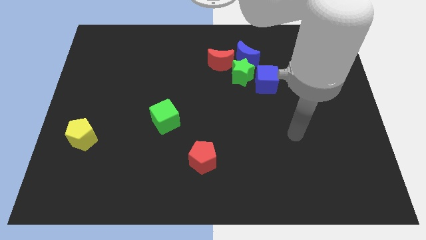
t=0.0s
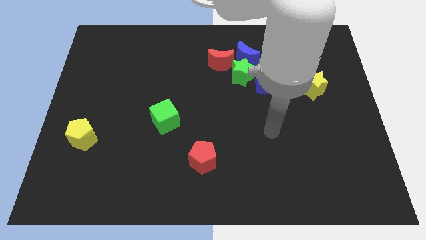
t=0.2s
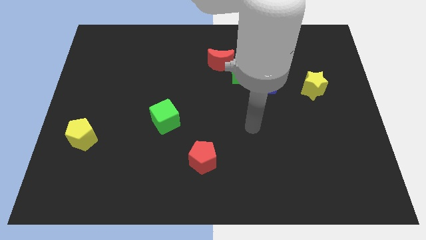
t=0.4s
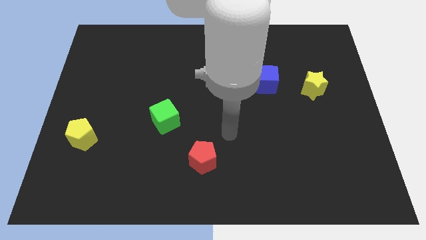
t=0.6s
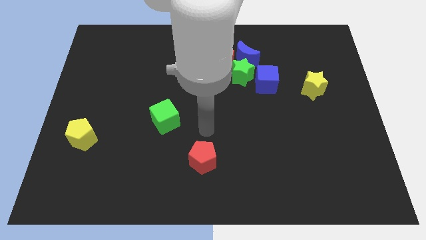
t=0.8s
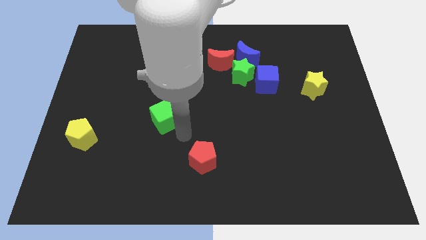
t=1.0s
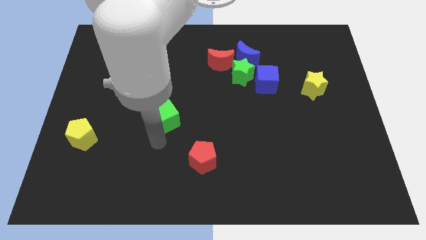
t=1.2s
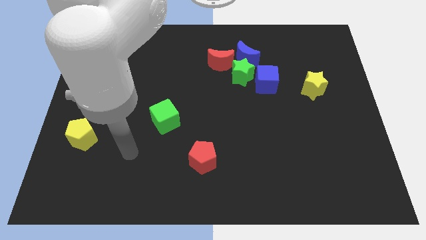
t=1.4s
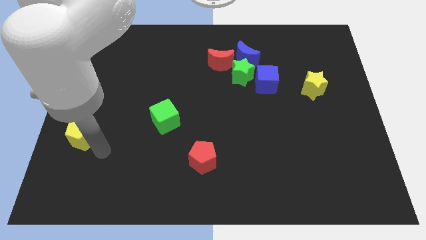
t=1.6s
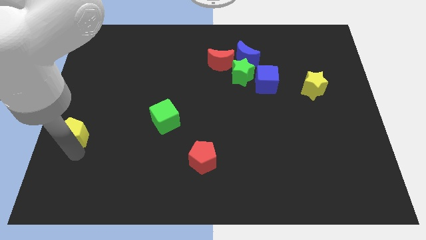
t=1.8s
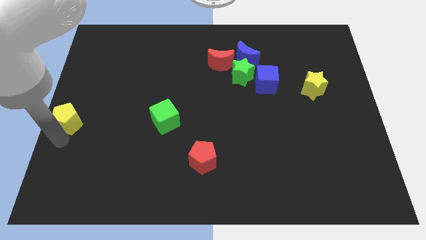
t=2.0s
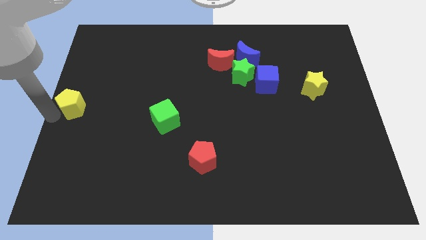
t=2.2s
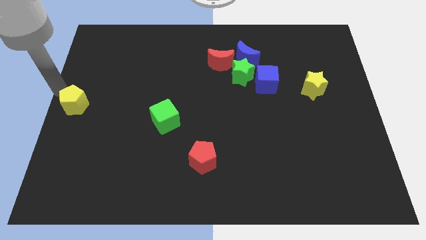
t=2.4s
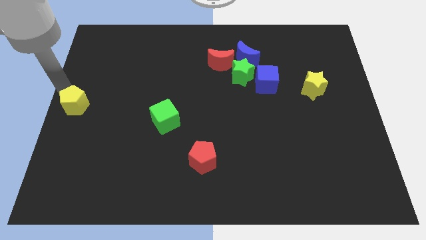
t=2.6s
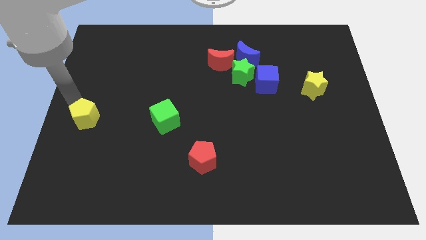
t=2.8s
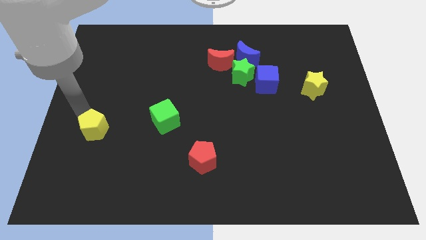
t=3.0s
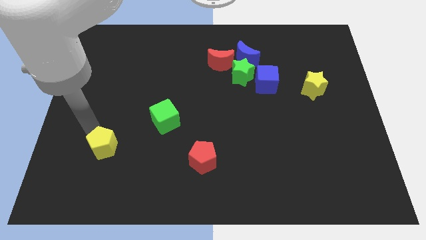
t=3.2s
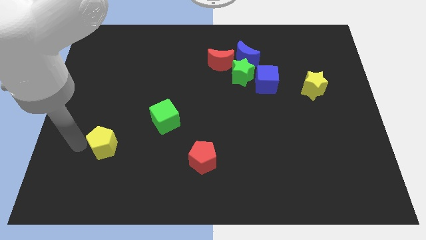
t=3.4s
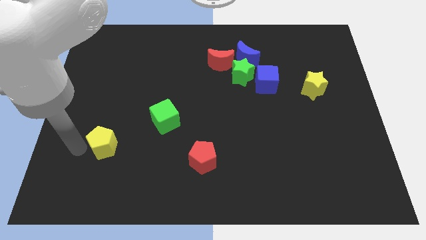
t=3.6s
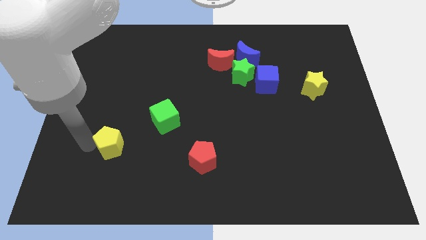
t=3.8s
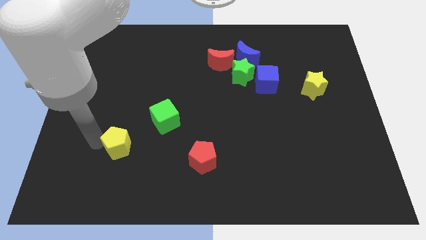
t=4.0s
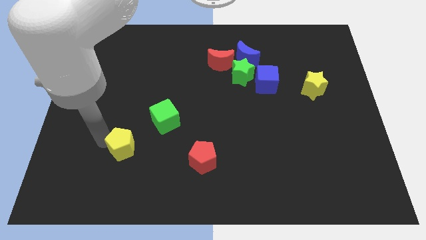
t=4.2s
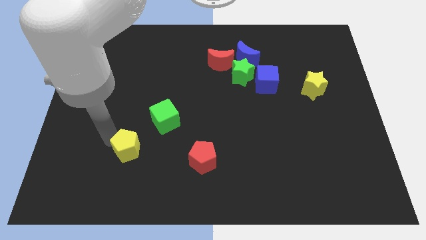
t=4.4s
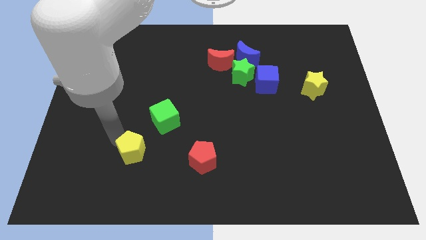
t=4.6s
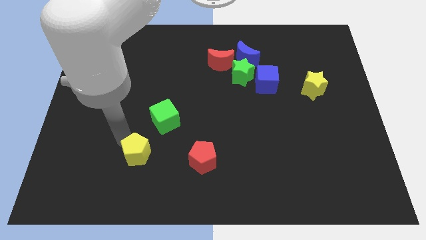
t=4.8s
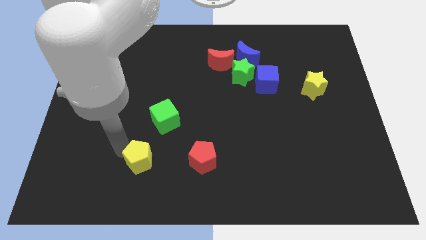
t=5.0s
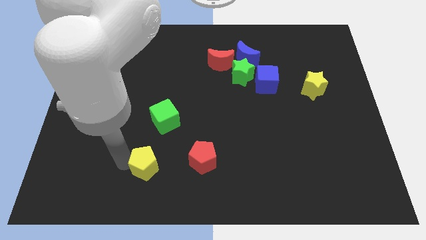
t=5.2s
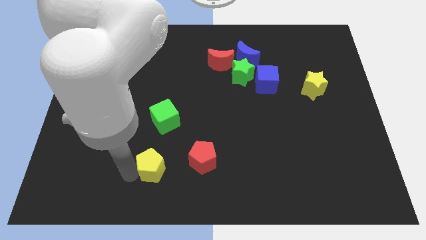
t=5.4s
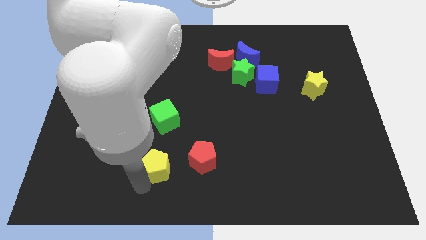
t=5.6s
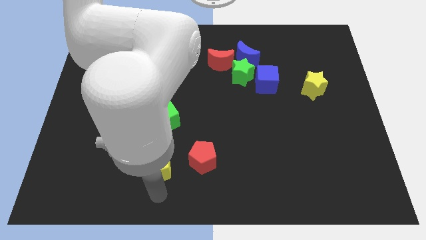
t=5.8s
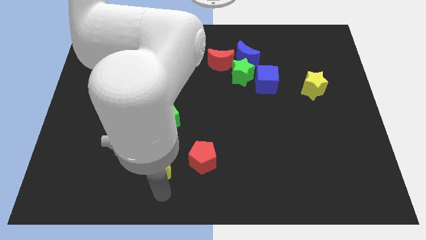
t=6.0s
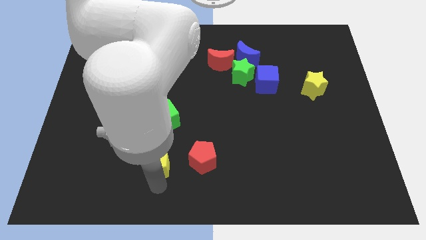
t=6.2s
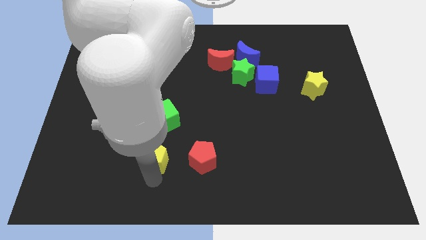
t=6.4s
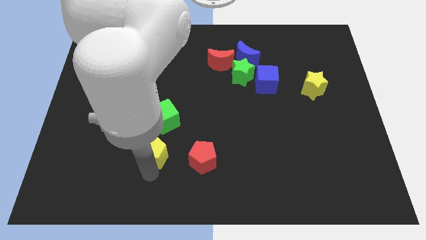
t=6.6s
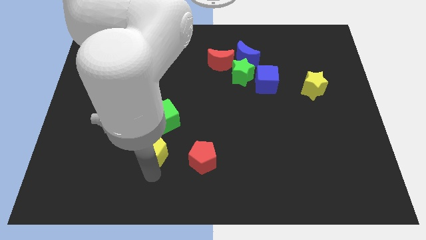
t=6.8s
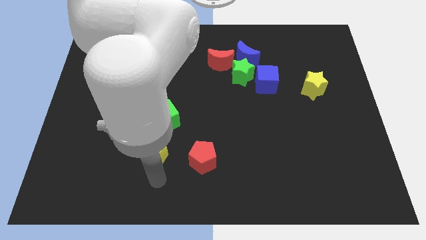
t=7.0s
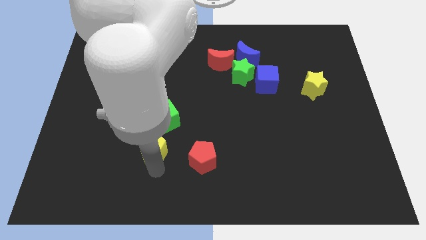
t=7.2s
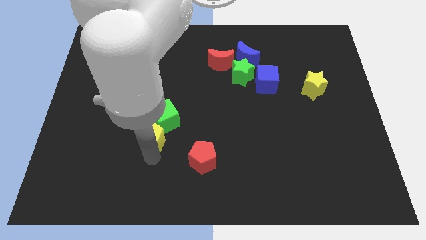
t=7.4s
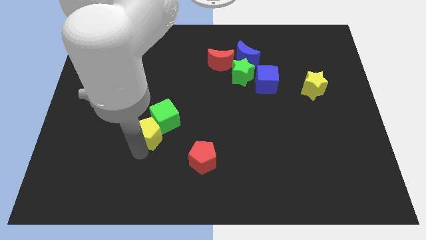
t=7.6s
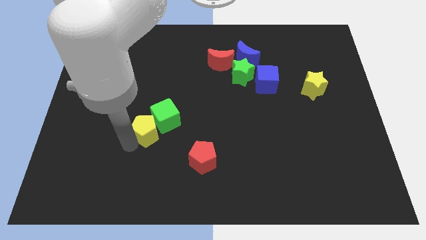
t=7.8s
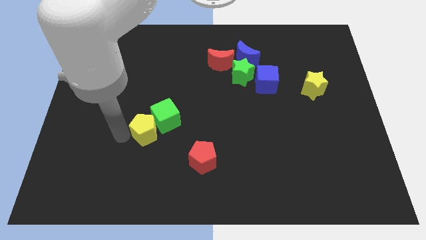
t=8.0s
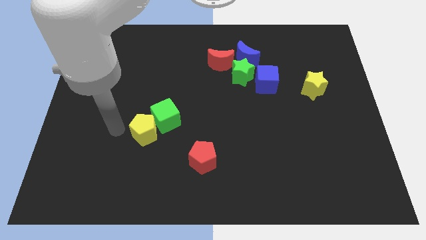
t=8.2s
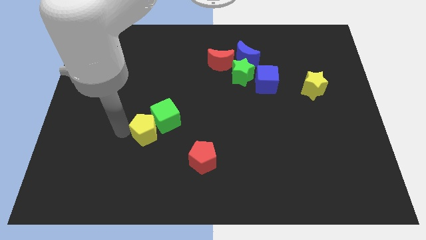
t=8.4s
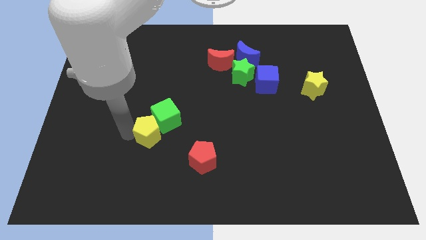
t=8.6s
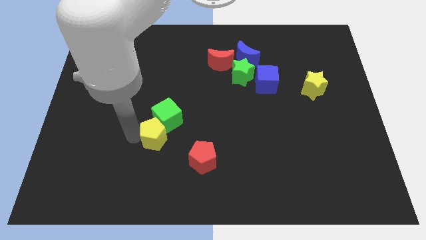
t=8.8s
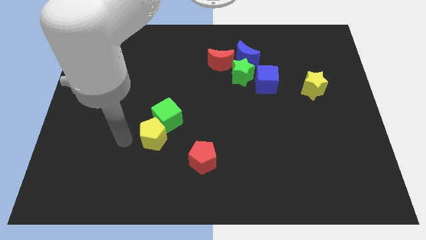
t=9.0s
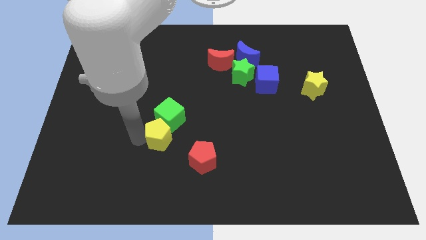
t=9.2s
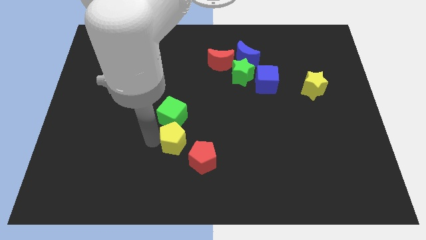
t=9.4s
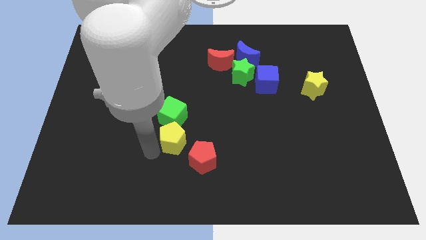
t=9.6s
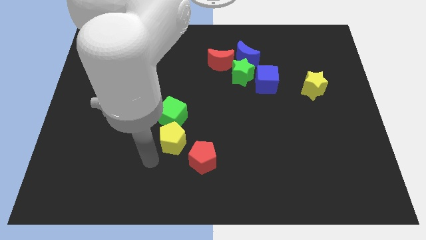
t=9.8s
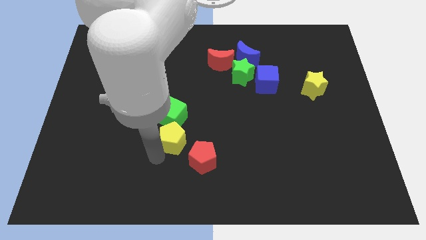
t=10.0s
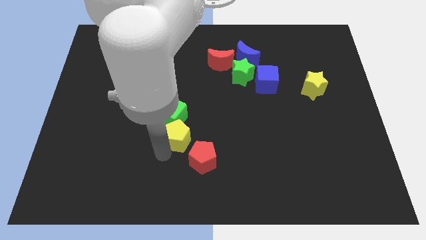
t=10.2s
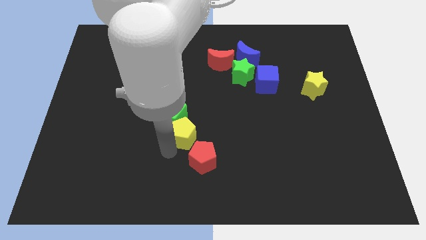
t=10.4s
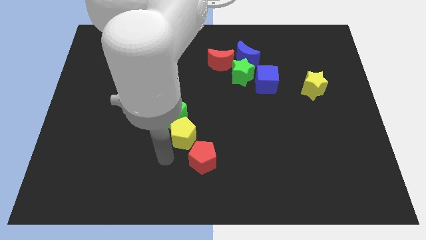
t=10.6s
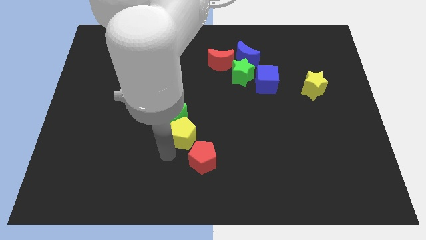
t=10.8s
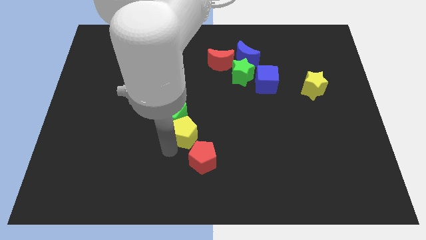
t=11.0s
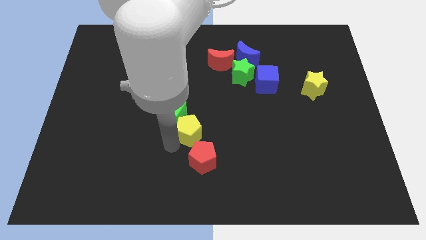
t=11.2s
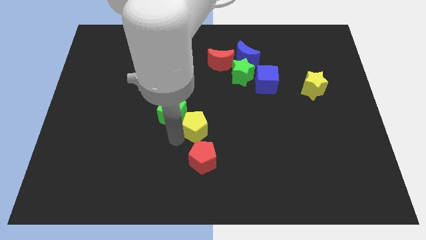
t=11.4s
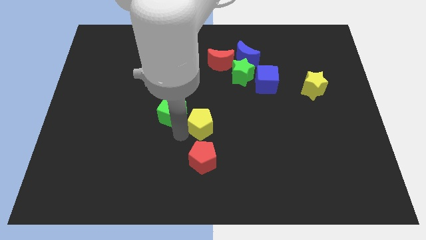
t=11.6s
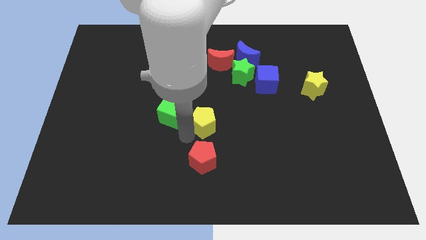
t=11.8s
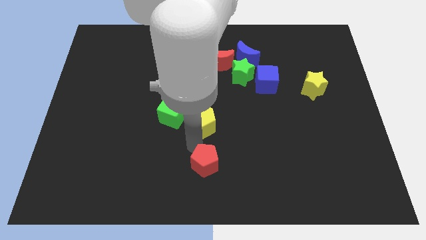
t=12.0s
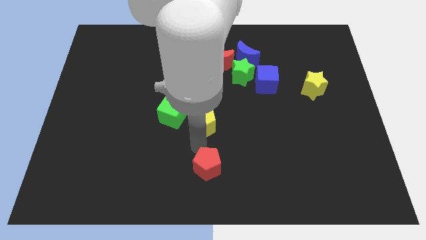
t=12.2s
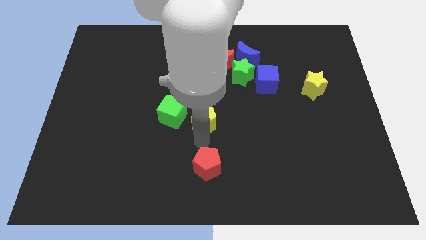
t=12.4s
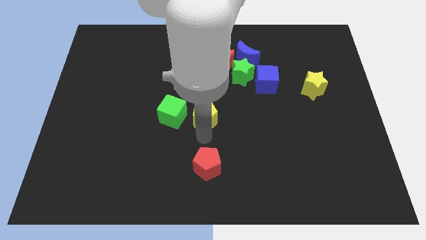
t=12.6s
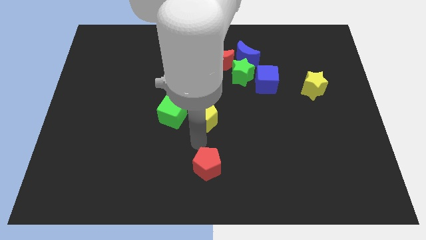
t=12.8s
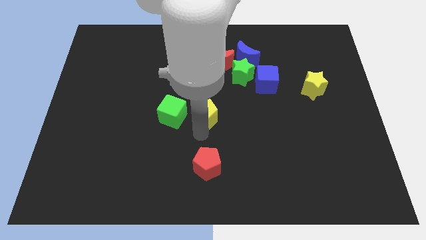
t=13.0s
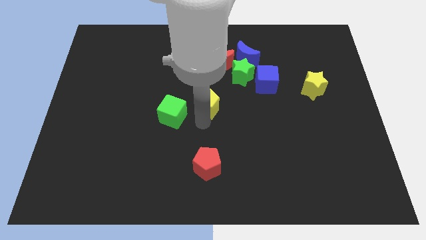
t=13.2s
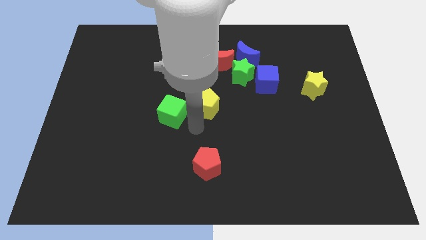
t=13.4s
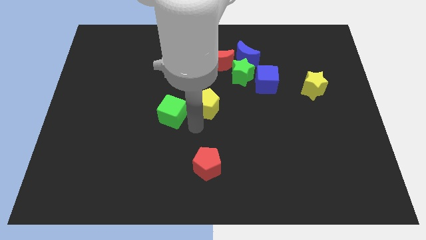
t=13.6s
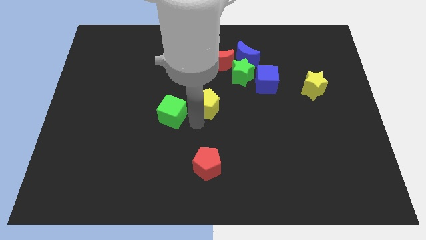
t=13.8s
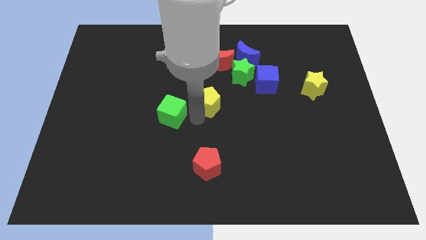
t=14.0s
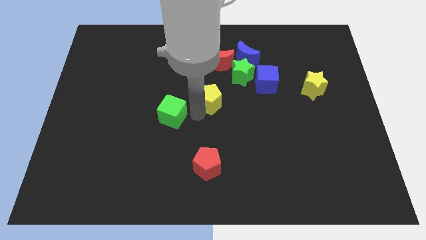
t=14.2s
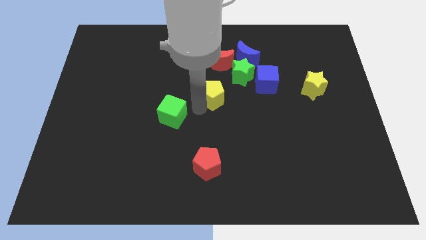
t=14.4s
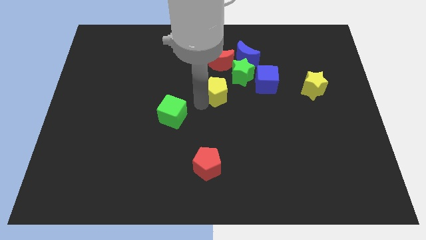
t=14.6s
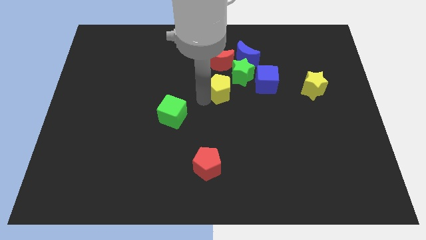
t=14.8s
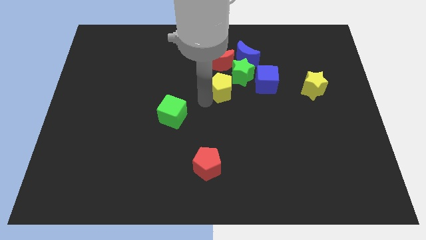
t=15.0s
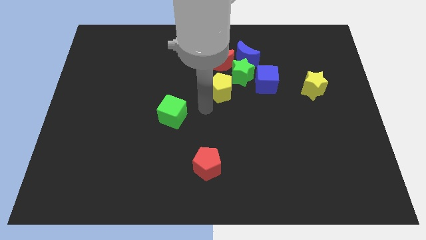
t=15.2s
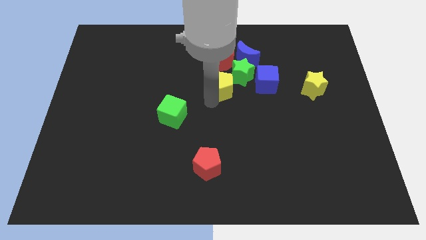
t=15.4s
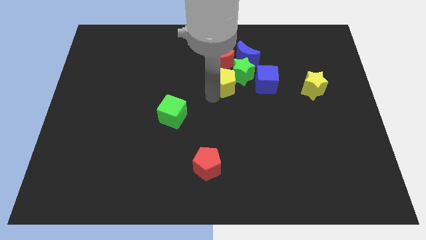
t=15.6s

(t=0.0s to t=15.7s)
push the yellow pentagon towards the green star
